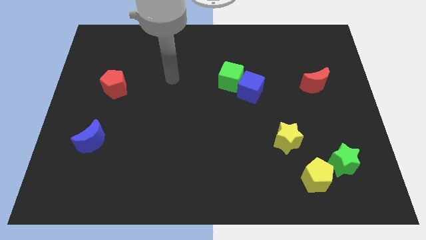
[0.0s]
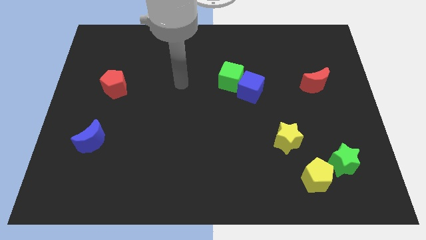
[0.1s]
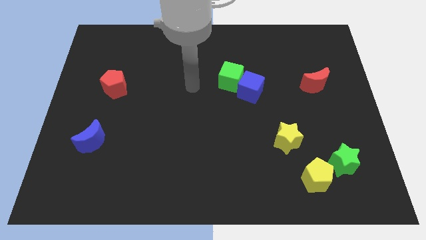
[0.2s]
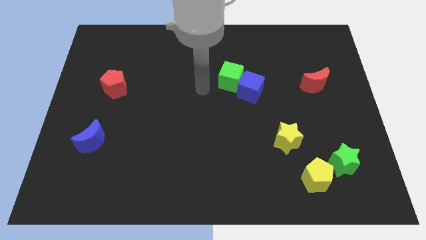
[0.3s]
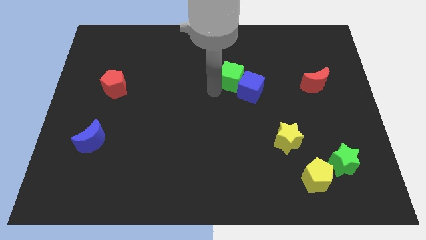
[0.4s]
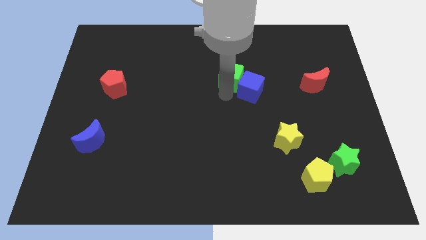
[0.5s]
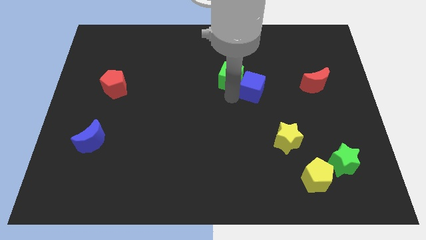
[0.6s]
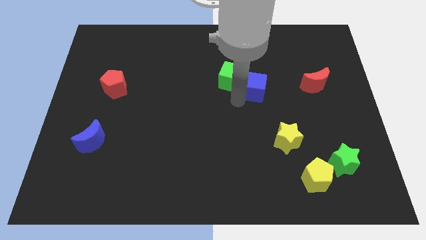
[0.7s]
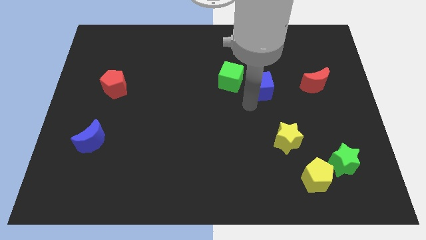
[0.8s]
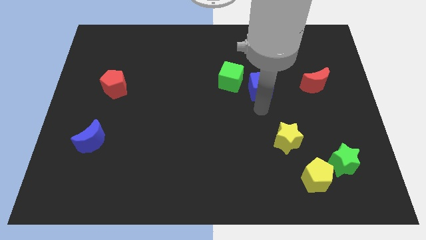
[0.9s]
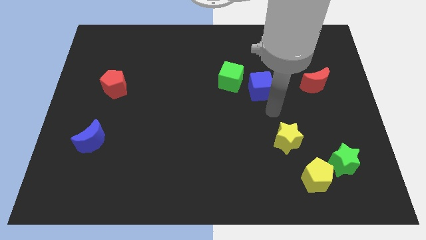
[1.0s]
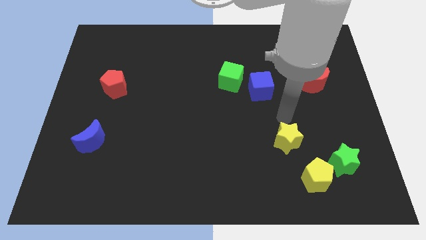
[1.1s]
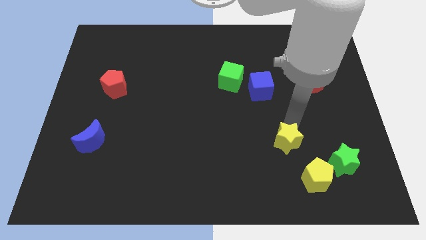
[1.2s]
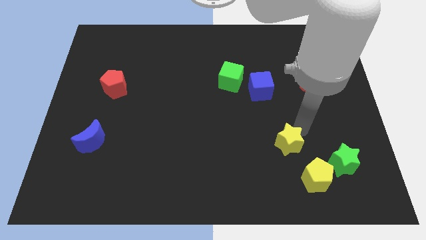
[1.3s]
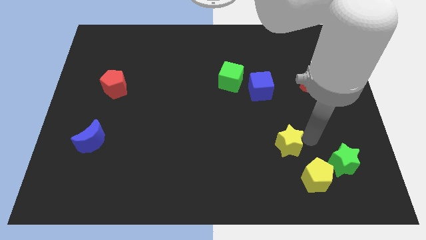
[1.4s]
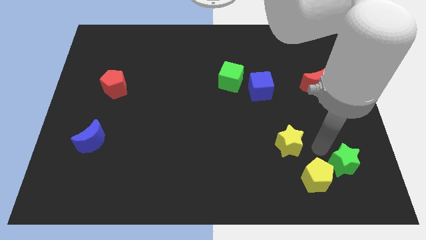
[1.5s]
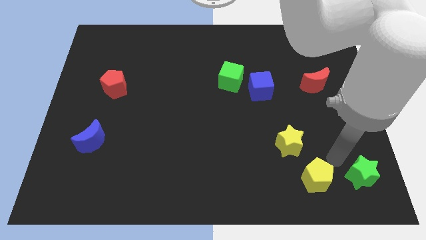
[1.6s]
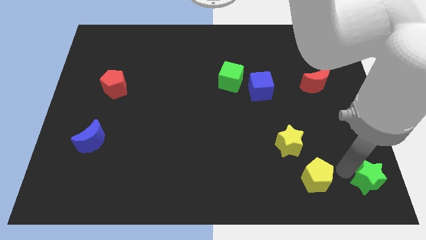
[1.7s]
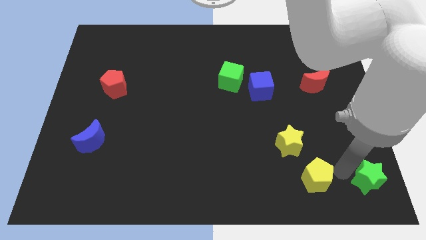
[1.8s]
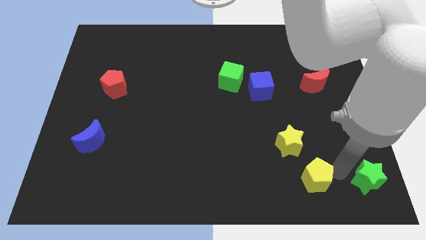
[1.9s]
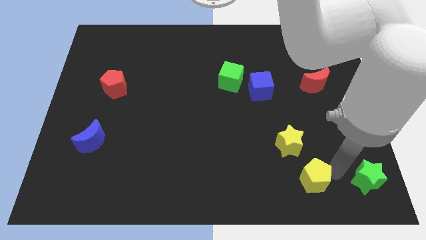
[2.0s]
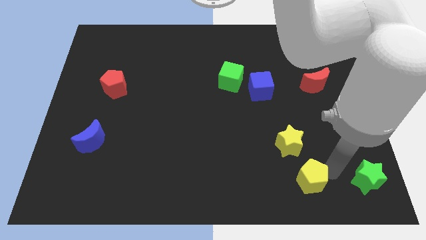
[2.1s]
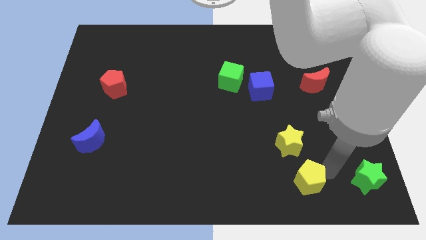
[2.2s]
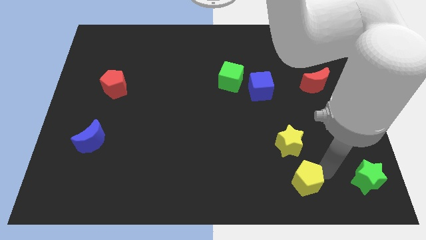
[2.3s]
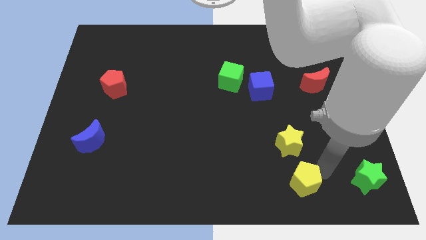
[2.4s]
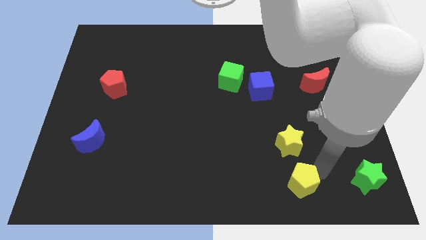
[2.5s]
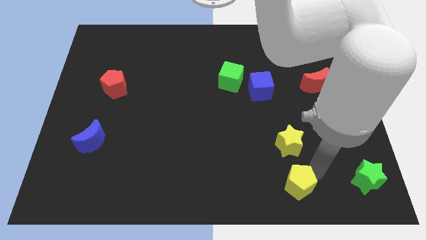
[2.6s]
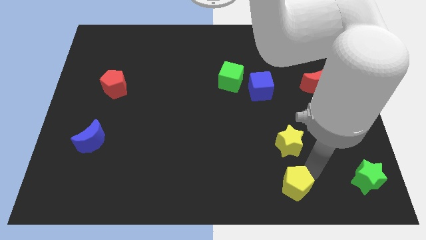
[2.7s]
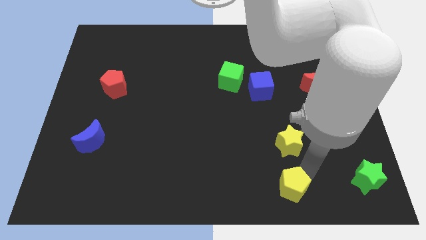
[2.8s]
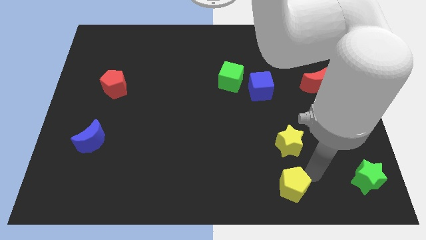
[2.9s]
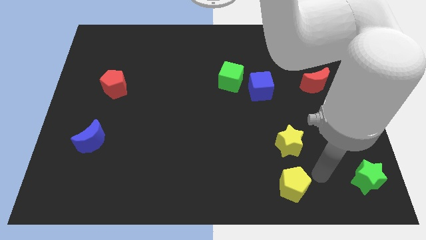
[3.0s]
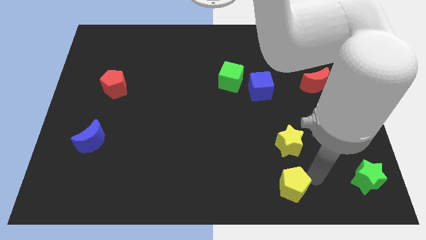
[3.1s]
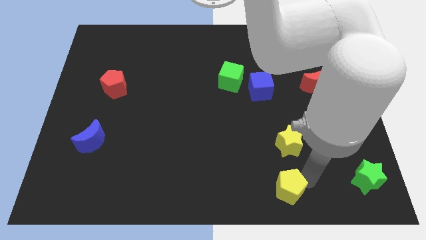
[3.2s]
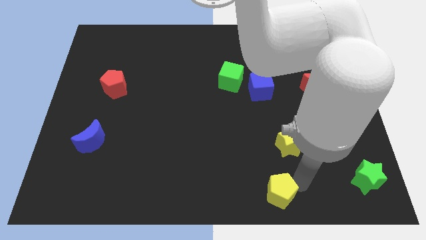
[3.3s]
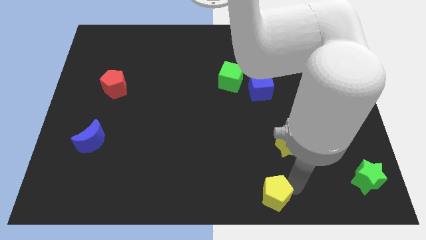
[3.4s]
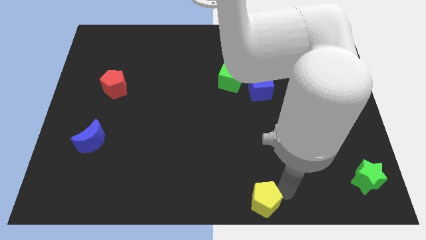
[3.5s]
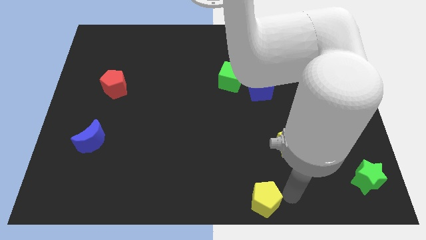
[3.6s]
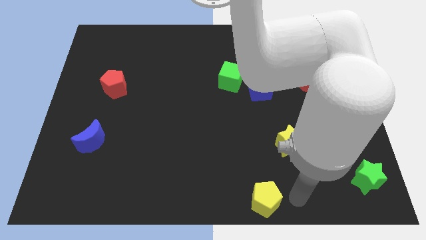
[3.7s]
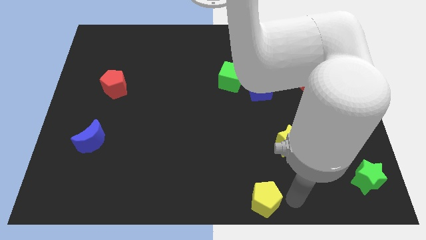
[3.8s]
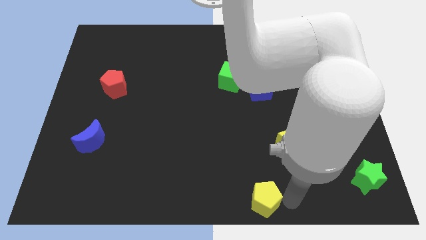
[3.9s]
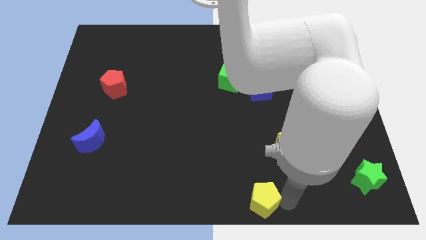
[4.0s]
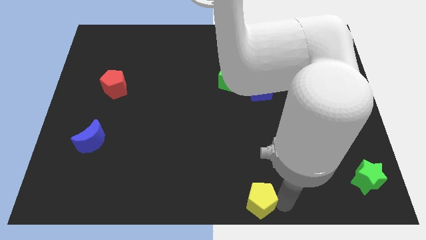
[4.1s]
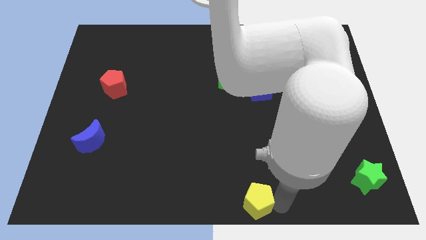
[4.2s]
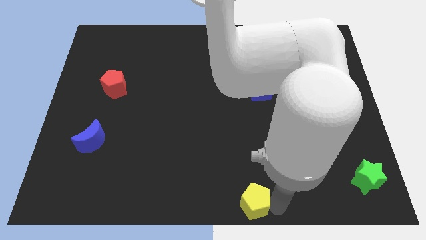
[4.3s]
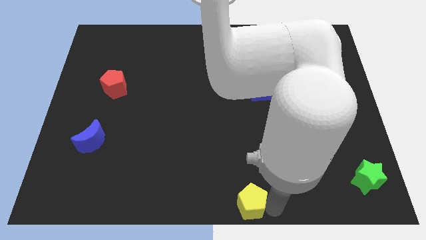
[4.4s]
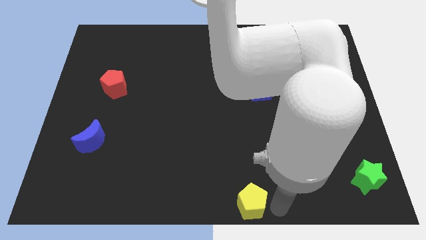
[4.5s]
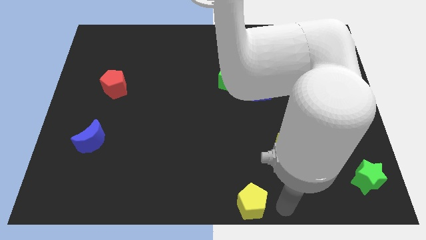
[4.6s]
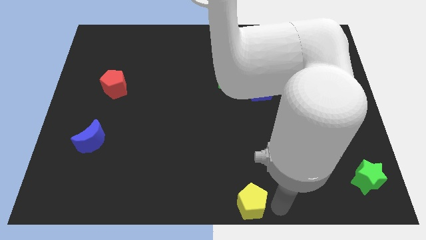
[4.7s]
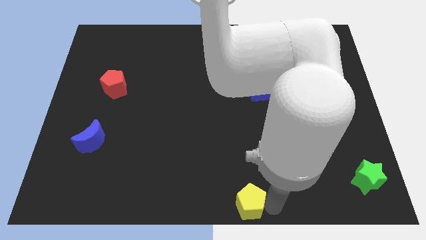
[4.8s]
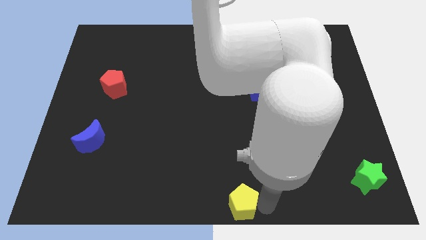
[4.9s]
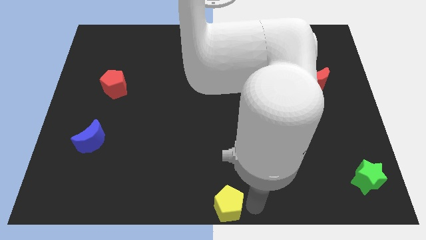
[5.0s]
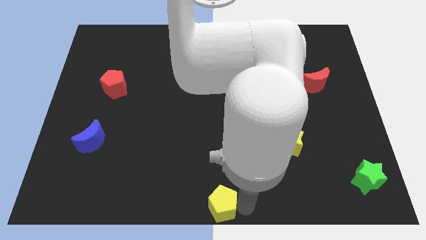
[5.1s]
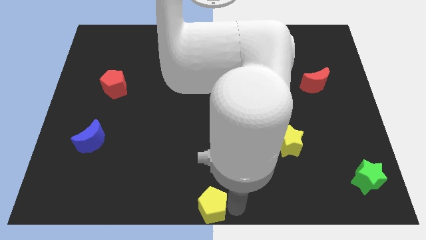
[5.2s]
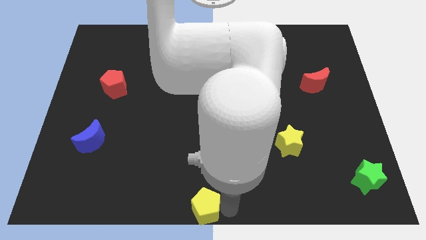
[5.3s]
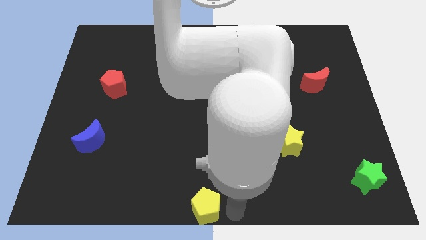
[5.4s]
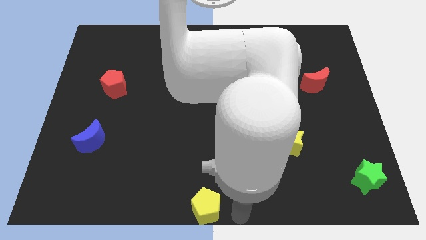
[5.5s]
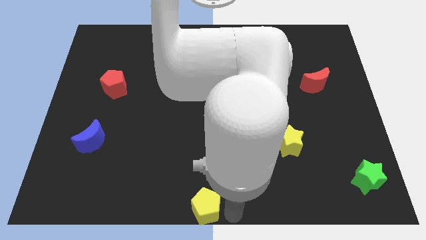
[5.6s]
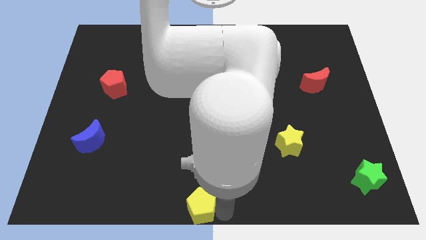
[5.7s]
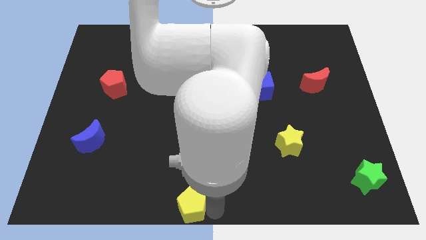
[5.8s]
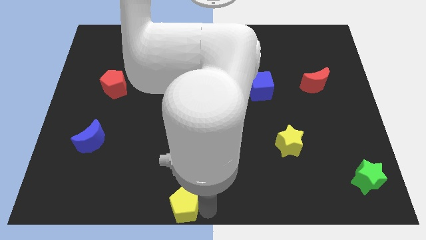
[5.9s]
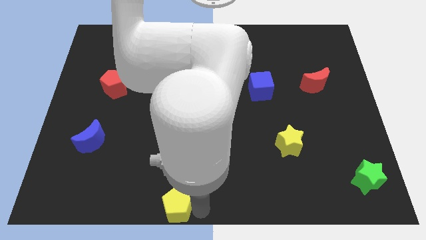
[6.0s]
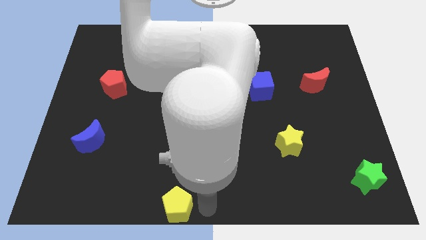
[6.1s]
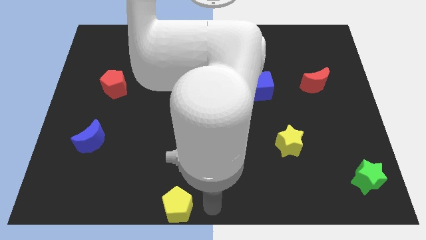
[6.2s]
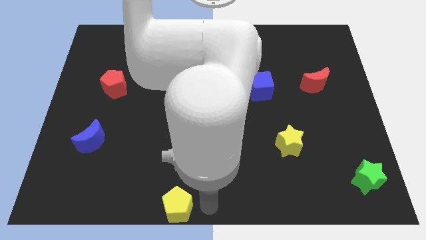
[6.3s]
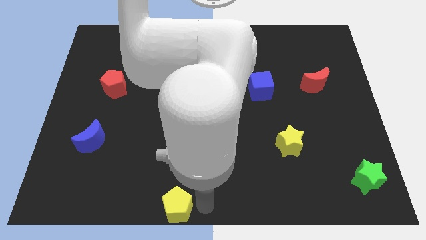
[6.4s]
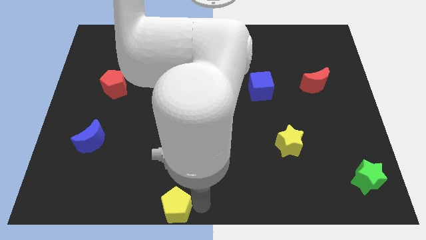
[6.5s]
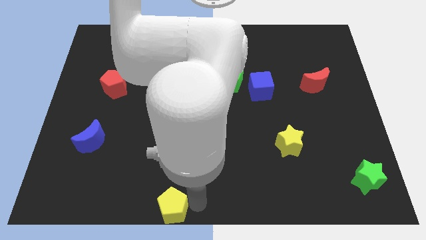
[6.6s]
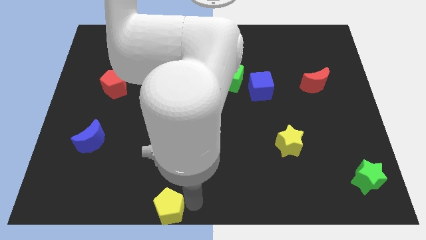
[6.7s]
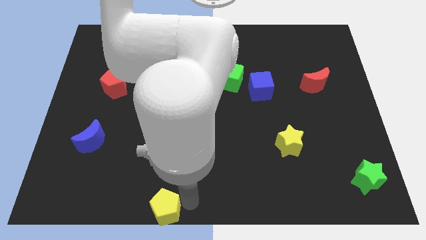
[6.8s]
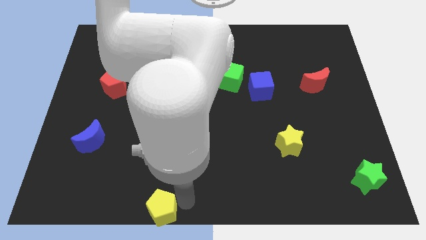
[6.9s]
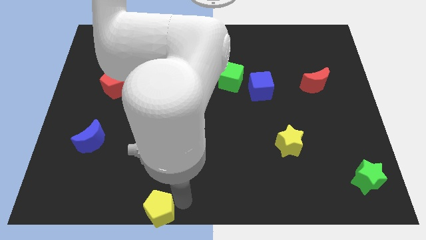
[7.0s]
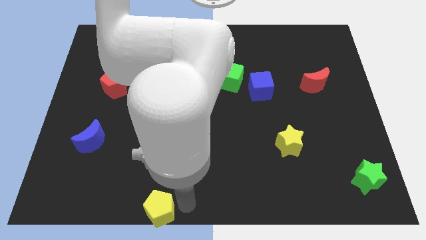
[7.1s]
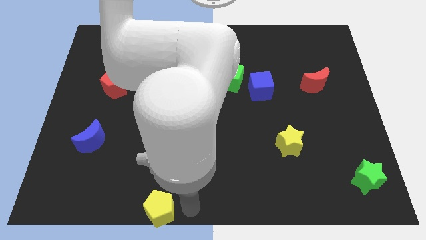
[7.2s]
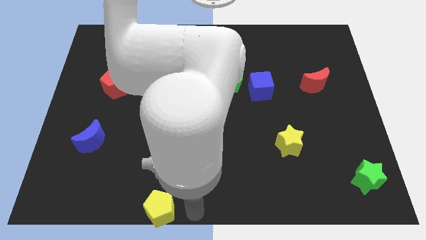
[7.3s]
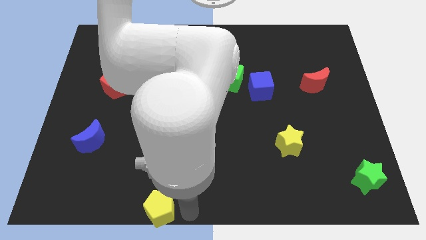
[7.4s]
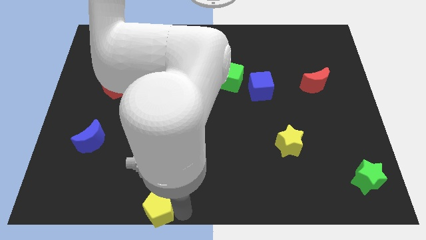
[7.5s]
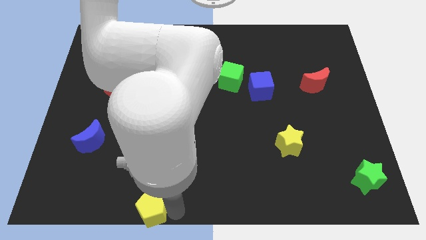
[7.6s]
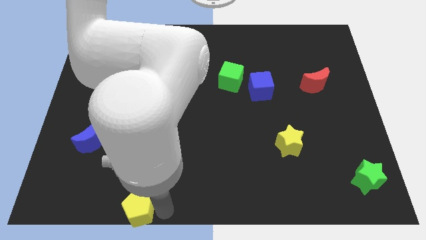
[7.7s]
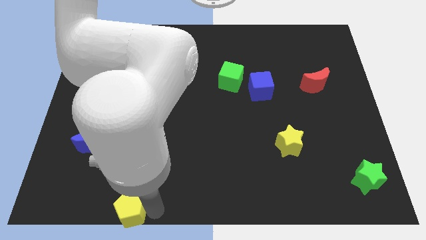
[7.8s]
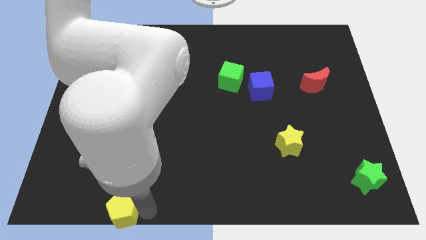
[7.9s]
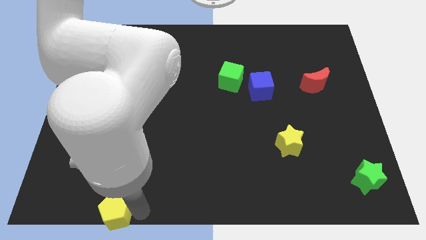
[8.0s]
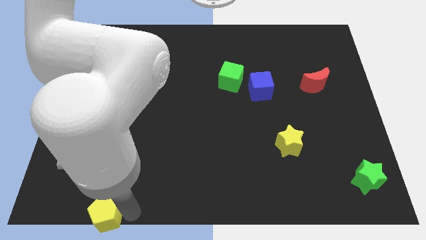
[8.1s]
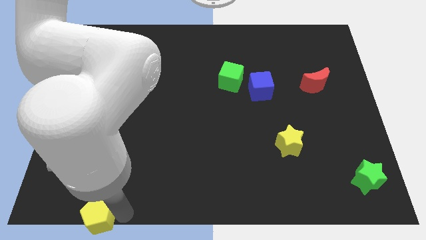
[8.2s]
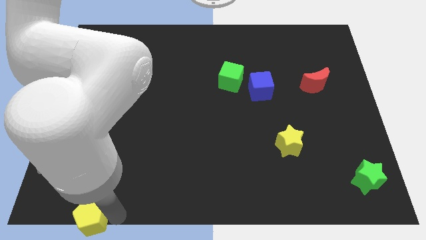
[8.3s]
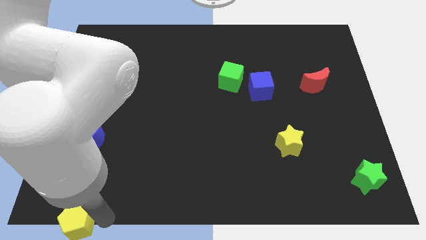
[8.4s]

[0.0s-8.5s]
move the yellow pentagon to the bottom left of the board
